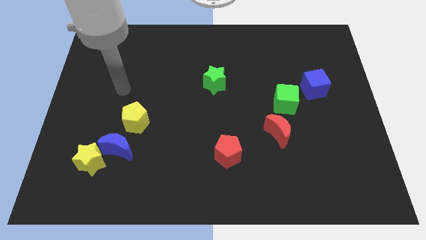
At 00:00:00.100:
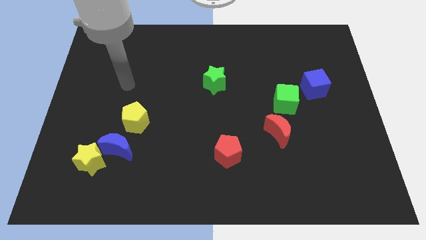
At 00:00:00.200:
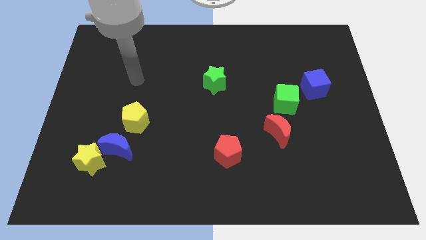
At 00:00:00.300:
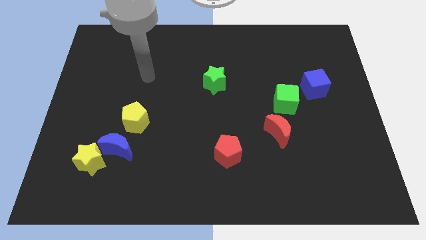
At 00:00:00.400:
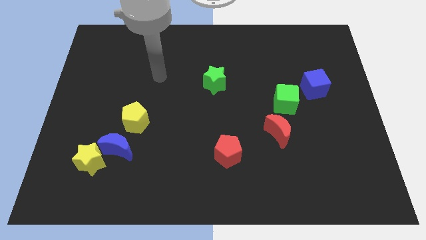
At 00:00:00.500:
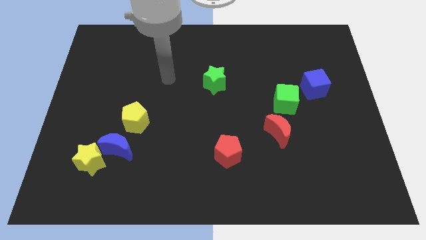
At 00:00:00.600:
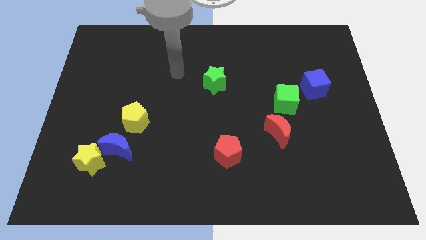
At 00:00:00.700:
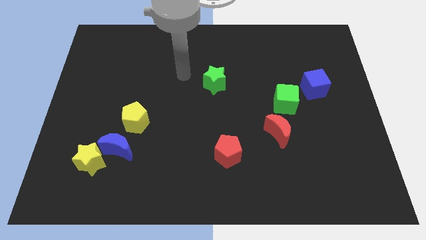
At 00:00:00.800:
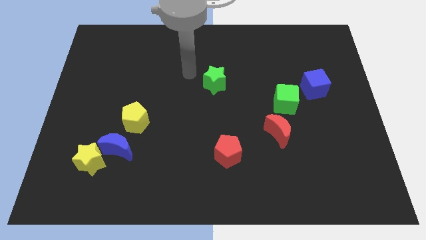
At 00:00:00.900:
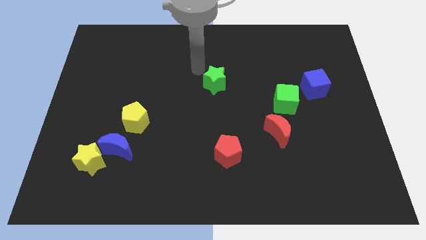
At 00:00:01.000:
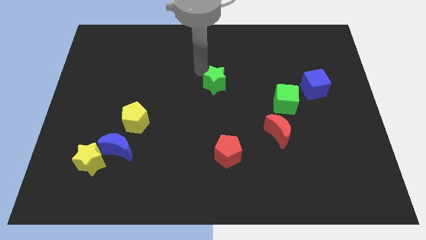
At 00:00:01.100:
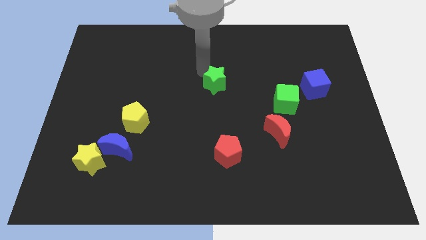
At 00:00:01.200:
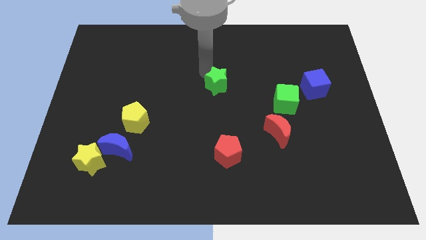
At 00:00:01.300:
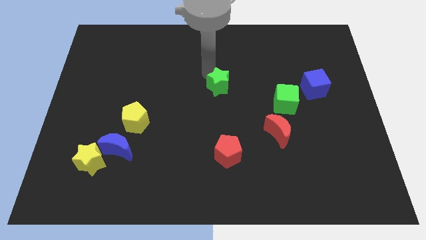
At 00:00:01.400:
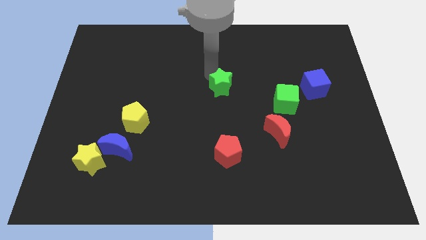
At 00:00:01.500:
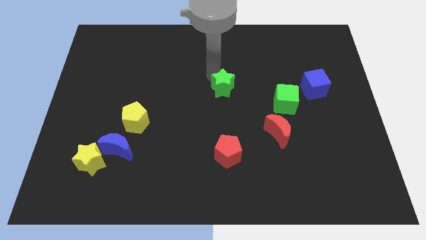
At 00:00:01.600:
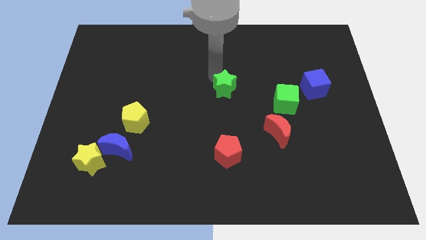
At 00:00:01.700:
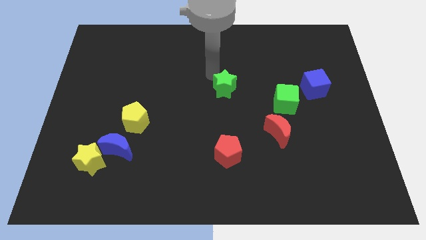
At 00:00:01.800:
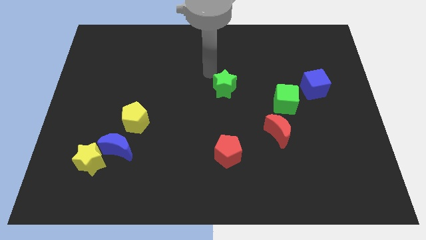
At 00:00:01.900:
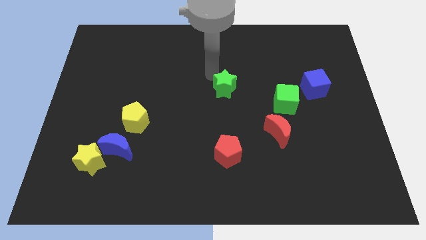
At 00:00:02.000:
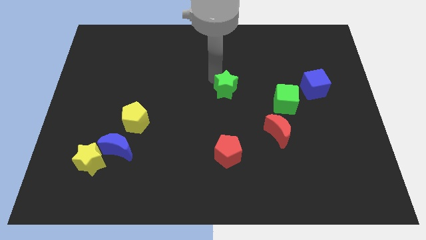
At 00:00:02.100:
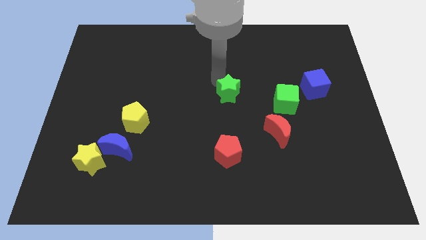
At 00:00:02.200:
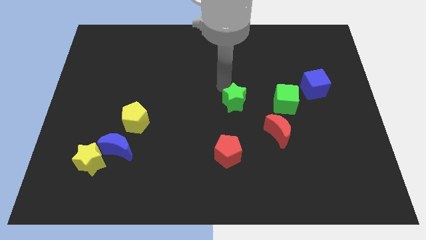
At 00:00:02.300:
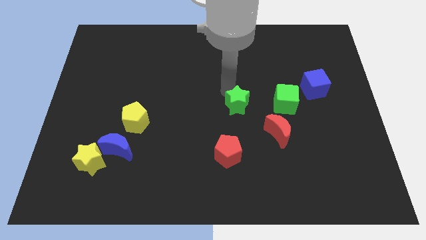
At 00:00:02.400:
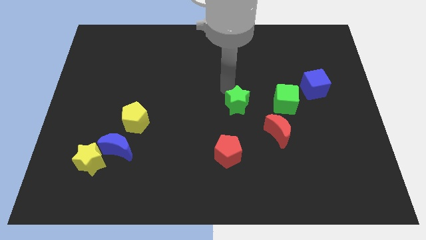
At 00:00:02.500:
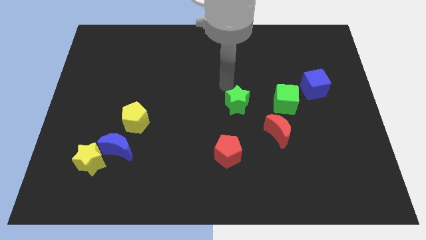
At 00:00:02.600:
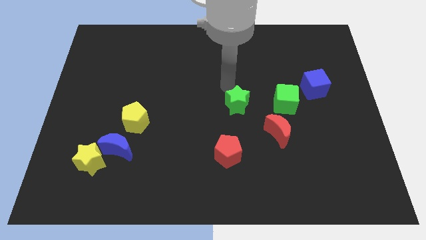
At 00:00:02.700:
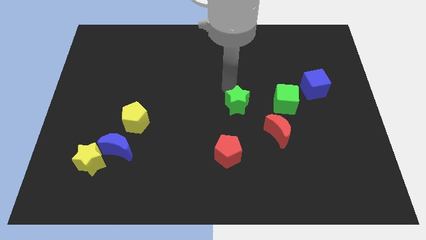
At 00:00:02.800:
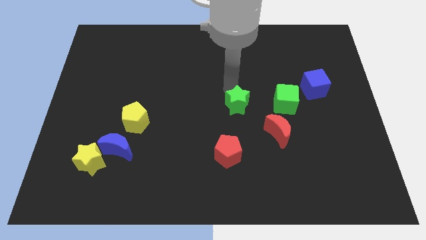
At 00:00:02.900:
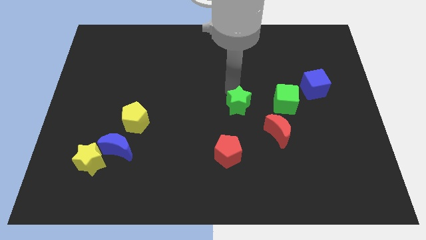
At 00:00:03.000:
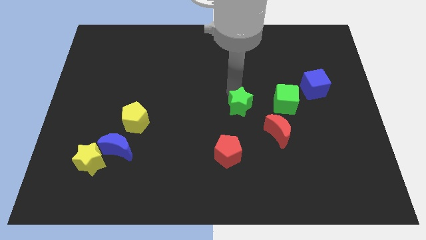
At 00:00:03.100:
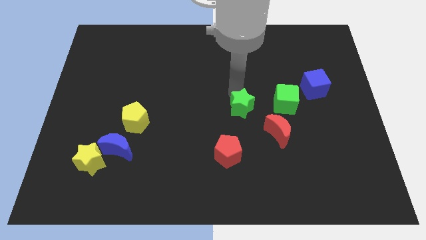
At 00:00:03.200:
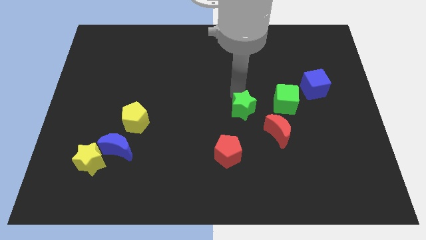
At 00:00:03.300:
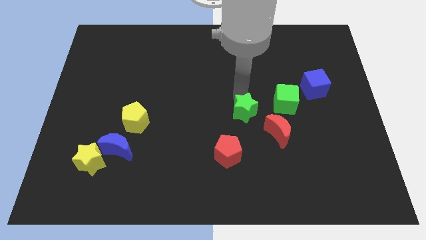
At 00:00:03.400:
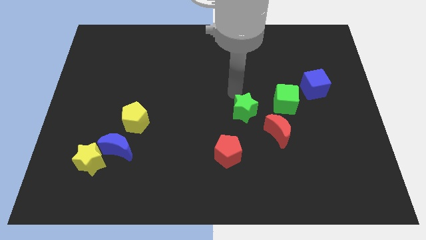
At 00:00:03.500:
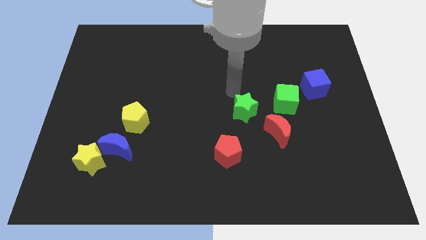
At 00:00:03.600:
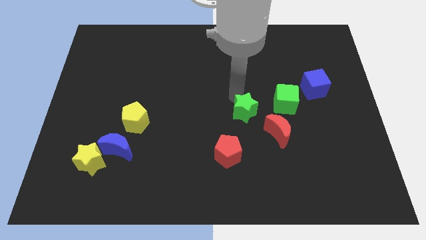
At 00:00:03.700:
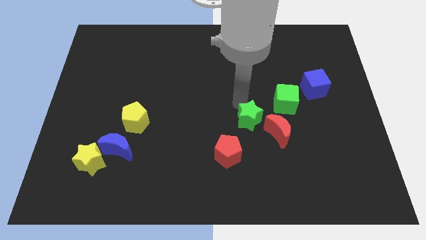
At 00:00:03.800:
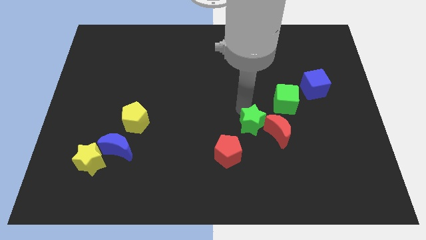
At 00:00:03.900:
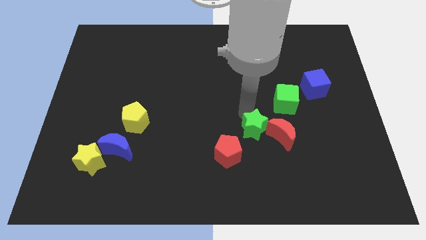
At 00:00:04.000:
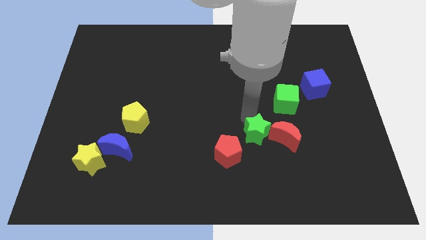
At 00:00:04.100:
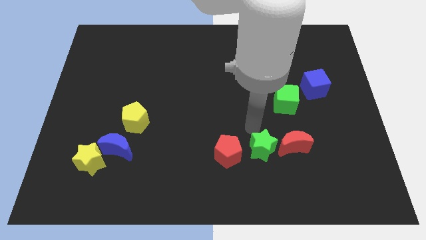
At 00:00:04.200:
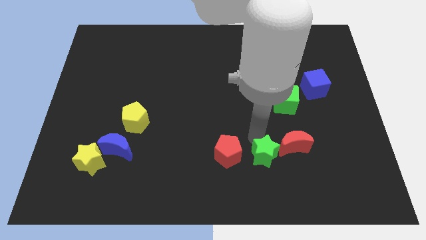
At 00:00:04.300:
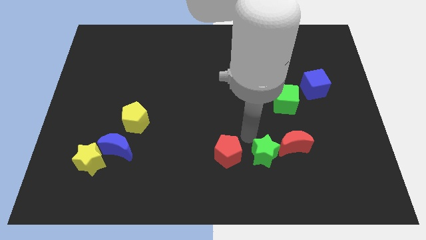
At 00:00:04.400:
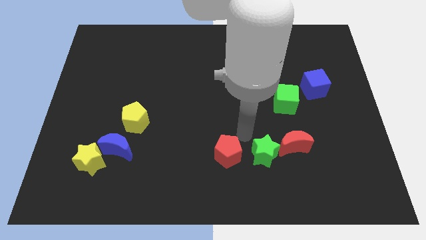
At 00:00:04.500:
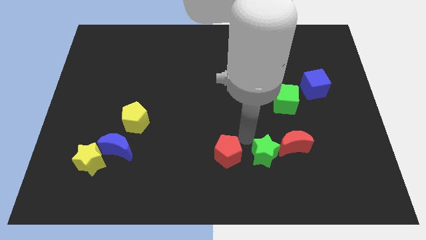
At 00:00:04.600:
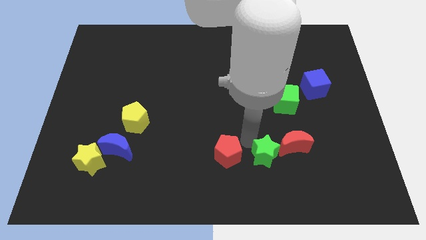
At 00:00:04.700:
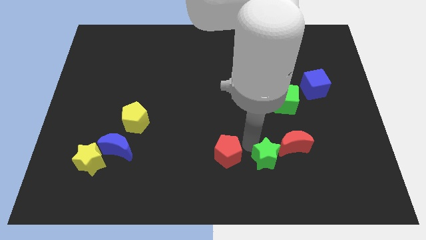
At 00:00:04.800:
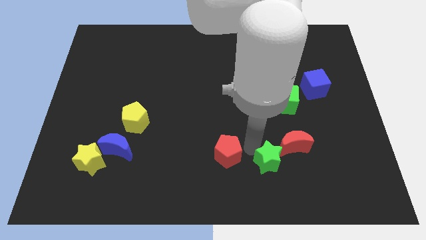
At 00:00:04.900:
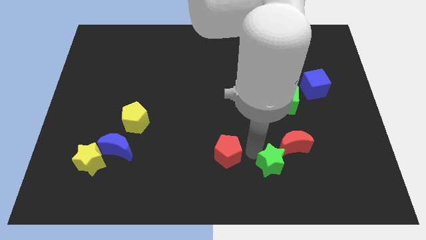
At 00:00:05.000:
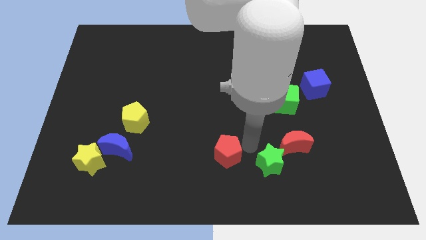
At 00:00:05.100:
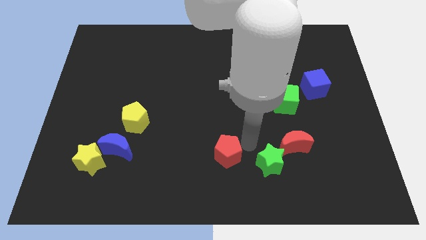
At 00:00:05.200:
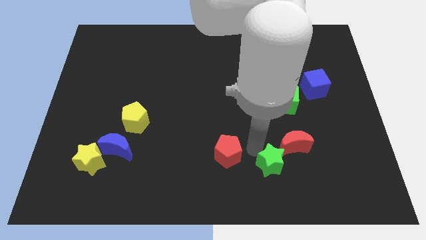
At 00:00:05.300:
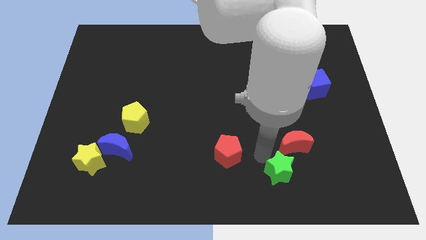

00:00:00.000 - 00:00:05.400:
push the green star to the bottom of the red moon

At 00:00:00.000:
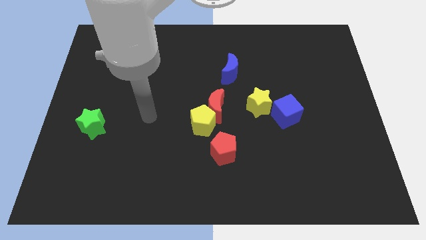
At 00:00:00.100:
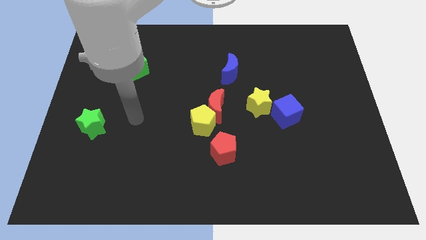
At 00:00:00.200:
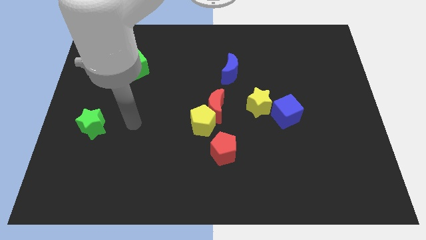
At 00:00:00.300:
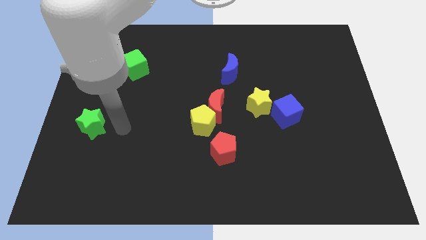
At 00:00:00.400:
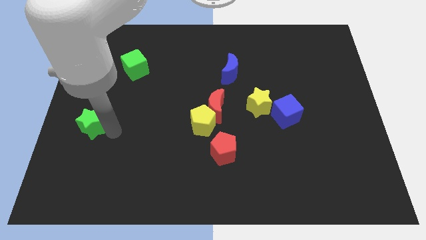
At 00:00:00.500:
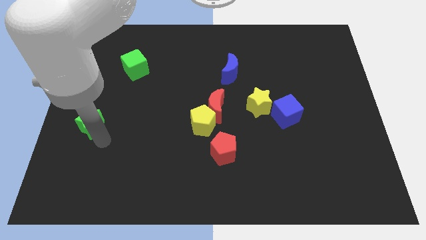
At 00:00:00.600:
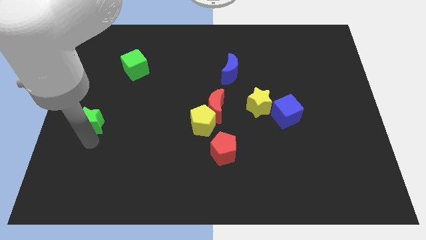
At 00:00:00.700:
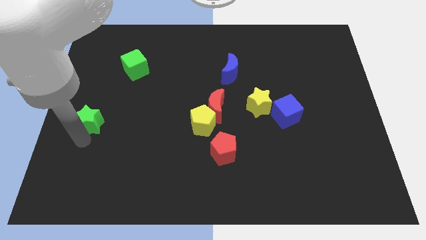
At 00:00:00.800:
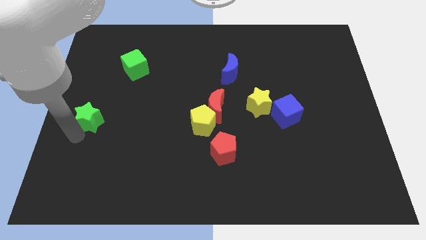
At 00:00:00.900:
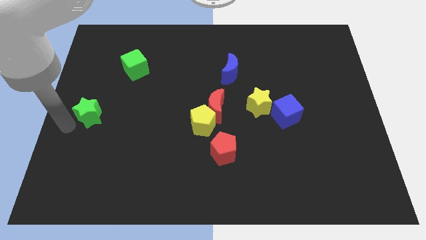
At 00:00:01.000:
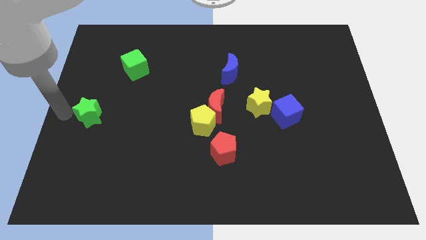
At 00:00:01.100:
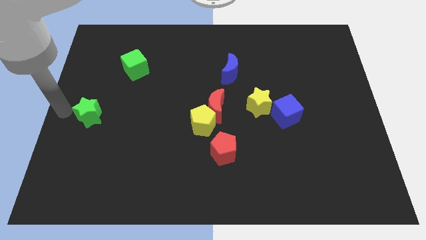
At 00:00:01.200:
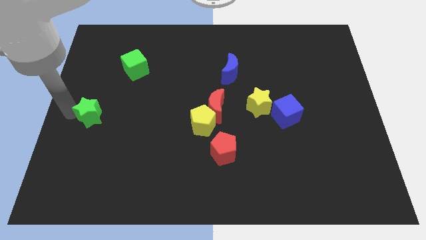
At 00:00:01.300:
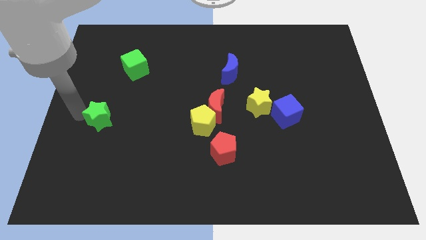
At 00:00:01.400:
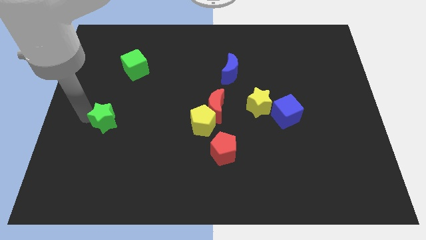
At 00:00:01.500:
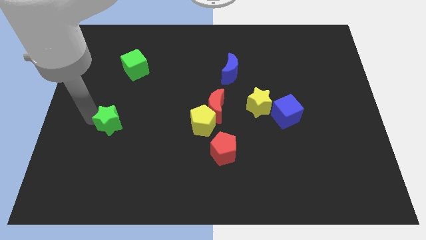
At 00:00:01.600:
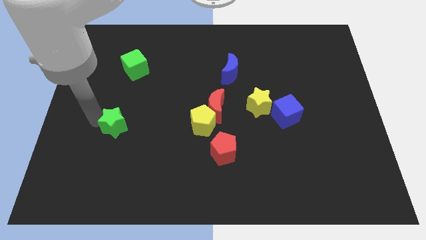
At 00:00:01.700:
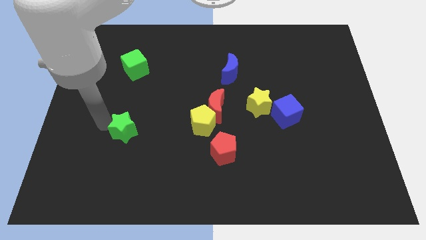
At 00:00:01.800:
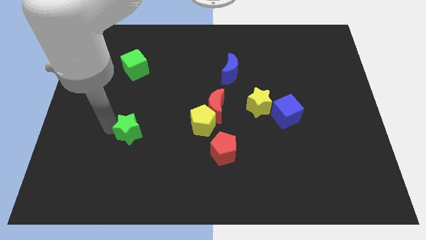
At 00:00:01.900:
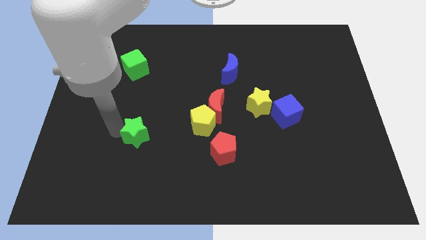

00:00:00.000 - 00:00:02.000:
push the green star to the left side of the yellow pentagon

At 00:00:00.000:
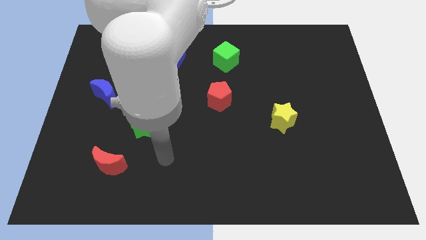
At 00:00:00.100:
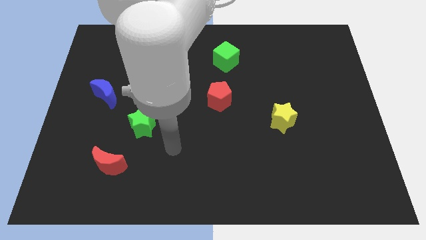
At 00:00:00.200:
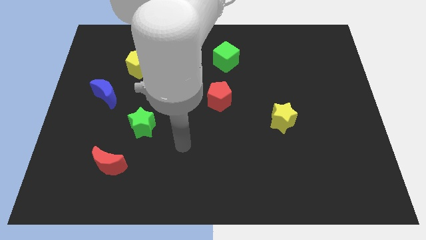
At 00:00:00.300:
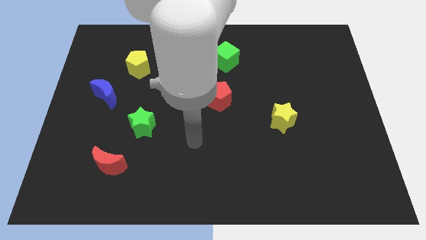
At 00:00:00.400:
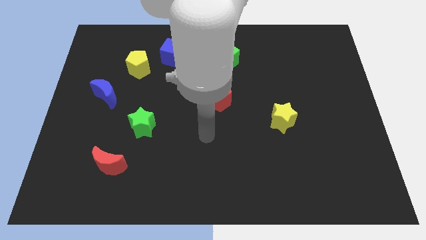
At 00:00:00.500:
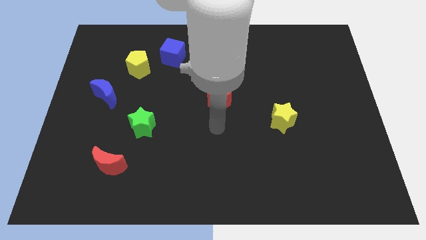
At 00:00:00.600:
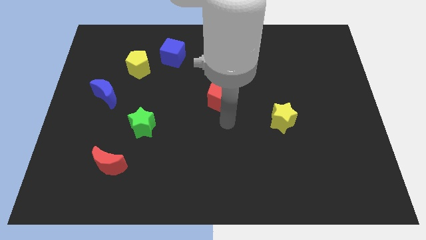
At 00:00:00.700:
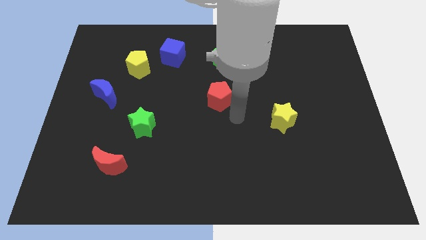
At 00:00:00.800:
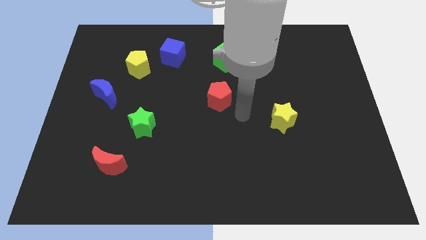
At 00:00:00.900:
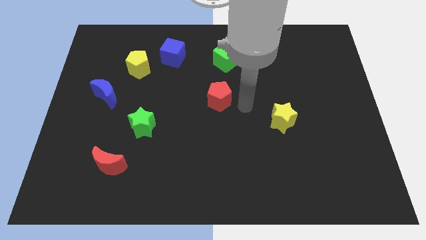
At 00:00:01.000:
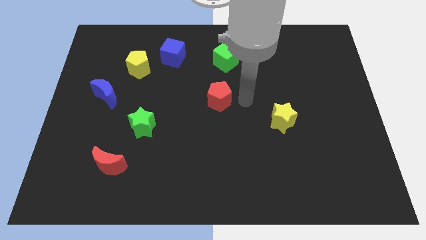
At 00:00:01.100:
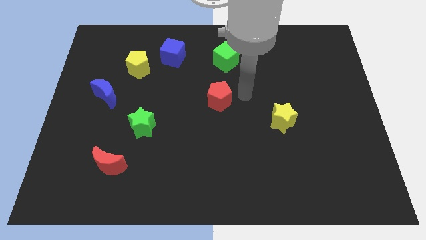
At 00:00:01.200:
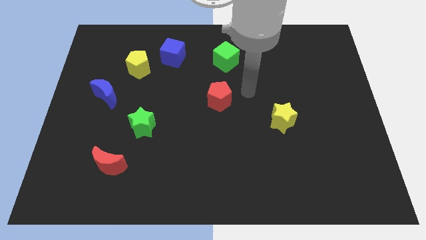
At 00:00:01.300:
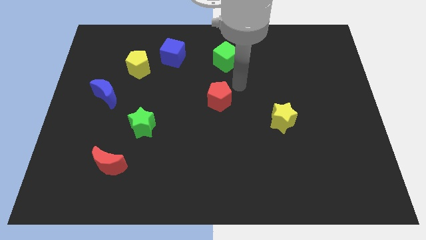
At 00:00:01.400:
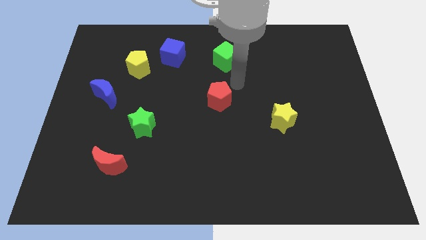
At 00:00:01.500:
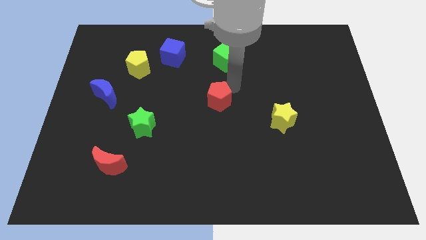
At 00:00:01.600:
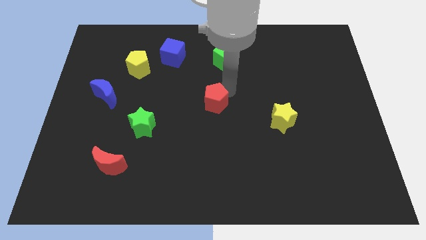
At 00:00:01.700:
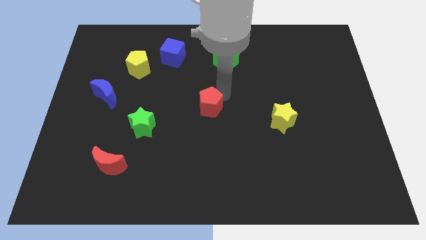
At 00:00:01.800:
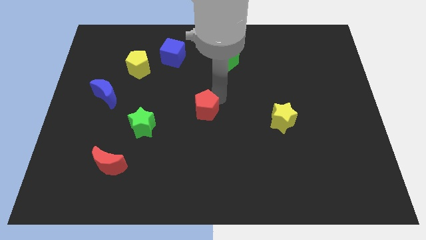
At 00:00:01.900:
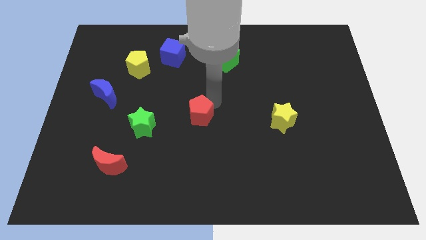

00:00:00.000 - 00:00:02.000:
put the red pentagon right of the green star
